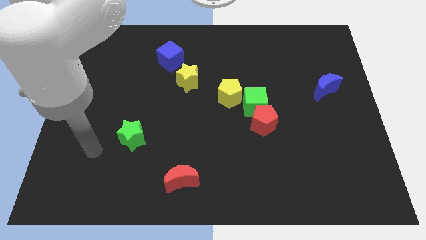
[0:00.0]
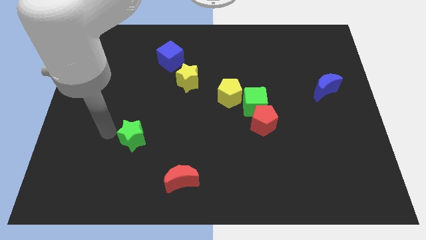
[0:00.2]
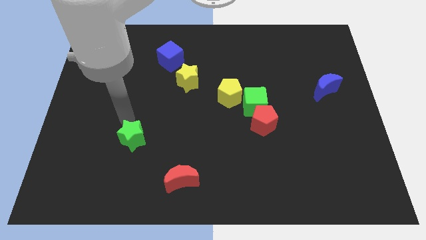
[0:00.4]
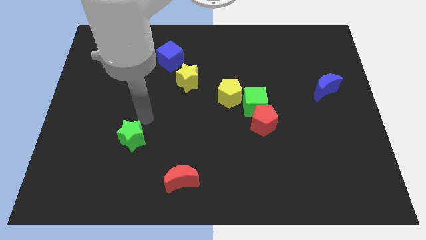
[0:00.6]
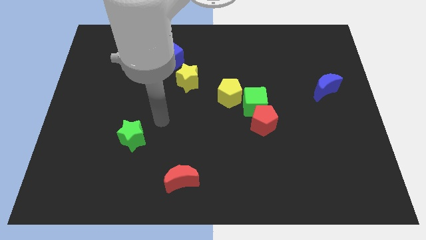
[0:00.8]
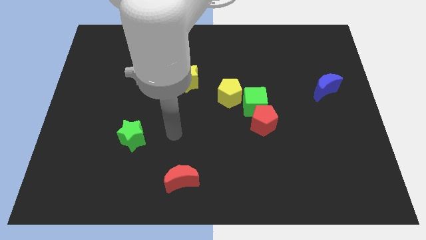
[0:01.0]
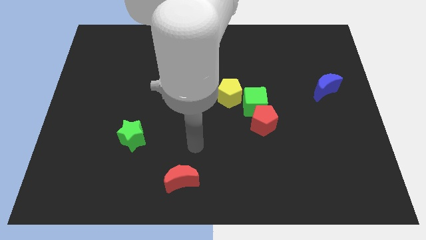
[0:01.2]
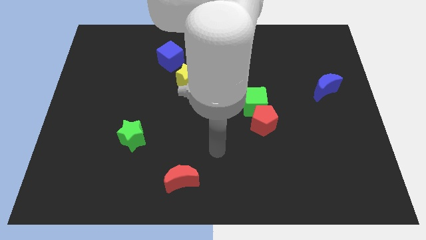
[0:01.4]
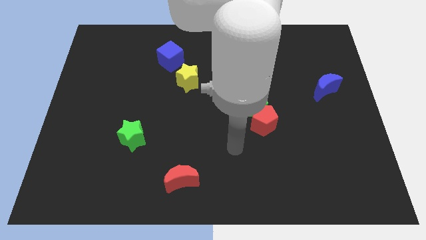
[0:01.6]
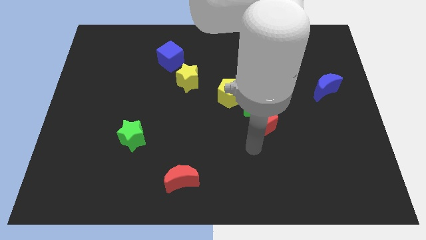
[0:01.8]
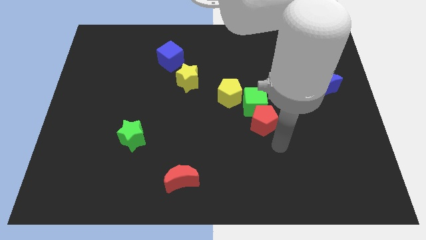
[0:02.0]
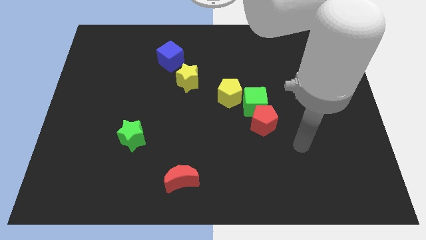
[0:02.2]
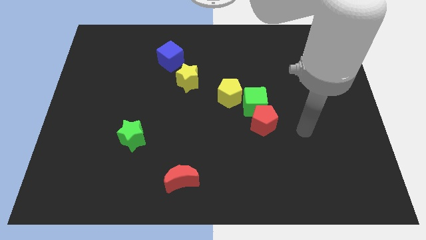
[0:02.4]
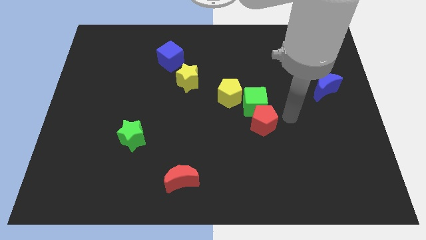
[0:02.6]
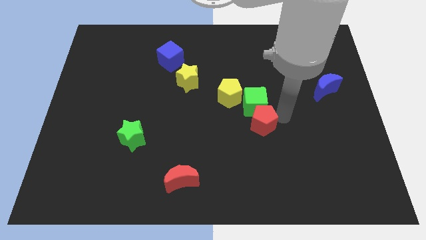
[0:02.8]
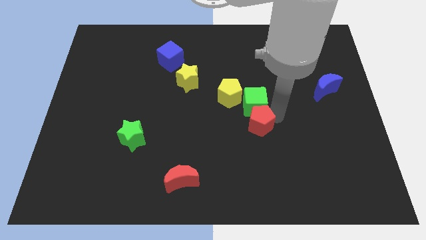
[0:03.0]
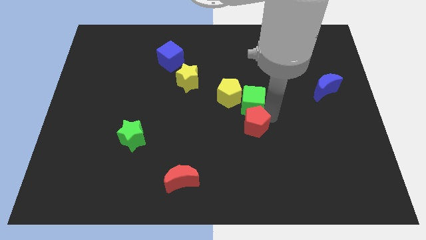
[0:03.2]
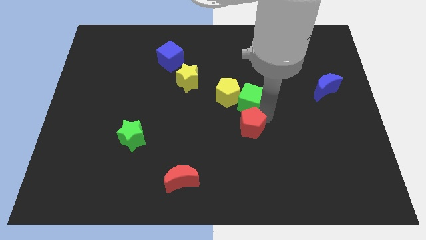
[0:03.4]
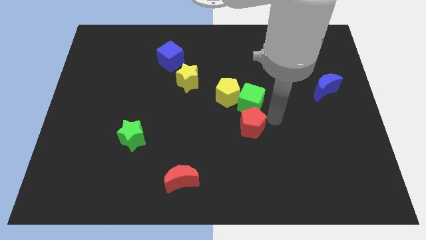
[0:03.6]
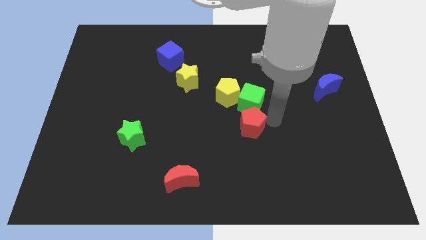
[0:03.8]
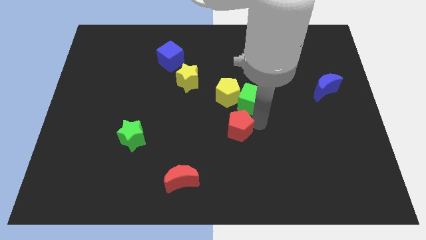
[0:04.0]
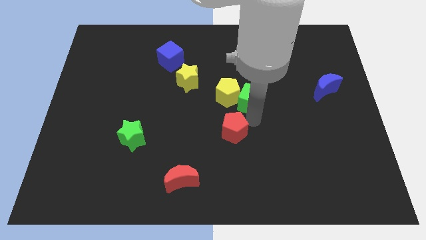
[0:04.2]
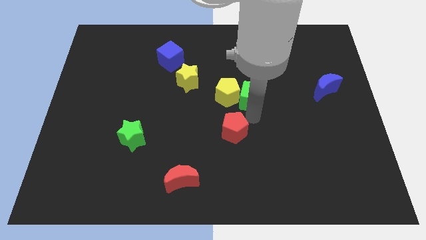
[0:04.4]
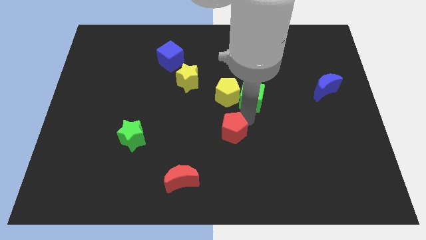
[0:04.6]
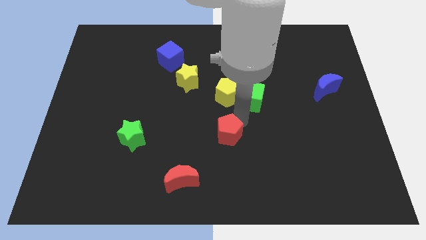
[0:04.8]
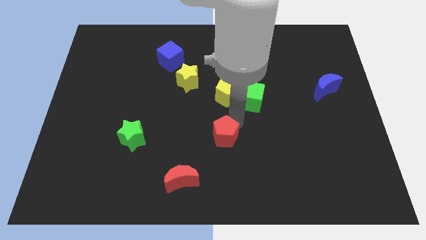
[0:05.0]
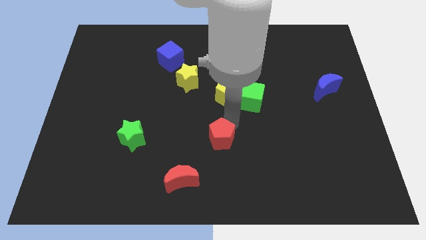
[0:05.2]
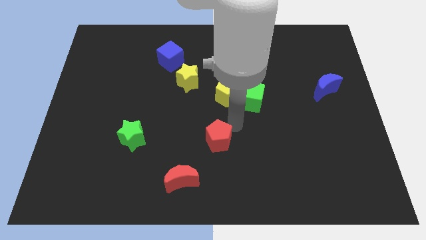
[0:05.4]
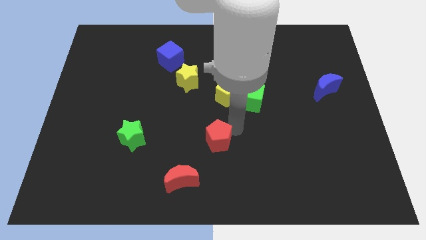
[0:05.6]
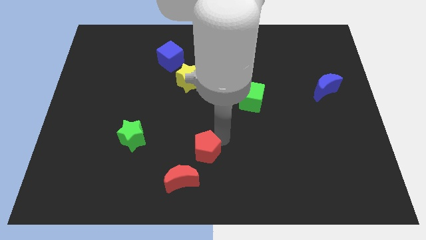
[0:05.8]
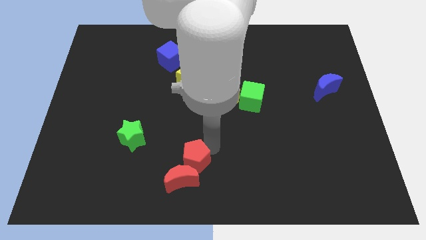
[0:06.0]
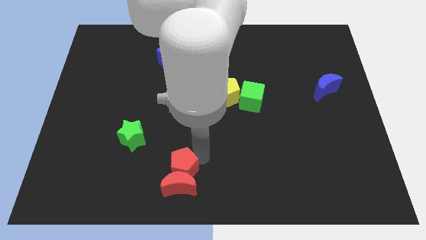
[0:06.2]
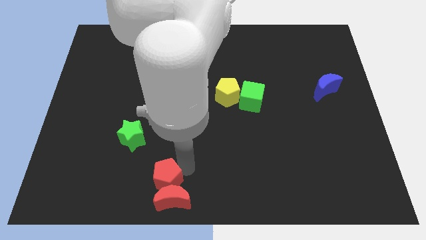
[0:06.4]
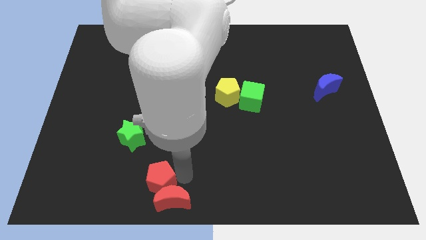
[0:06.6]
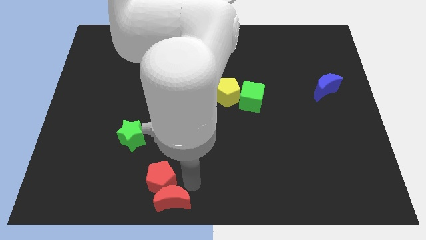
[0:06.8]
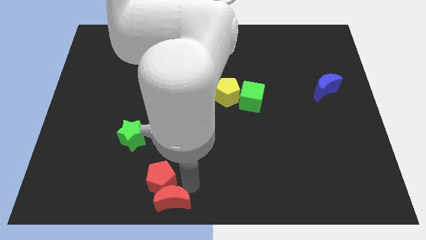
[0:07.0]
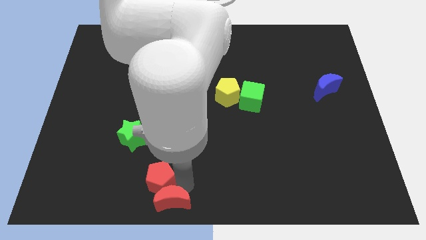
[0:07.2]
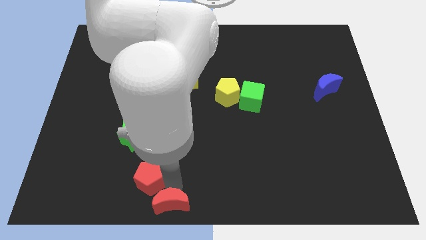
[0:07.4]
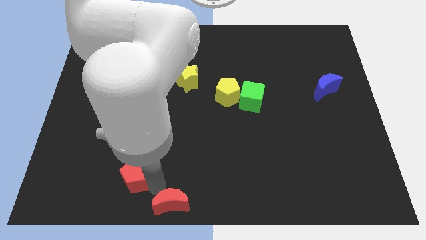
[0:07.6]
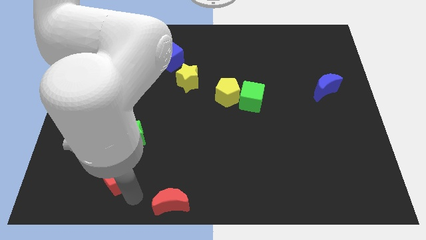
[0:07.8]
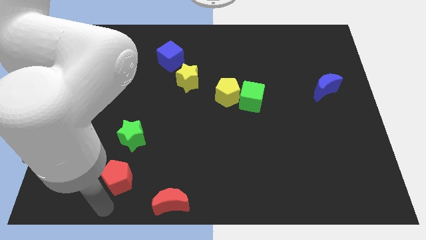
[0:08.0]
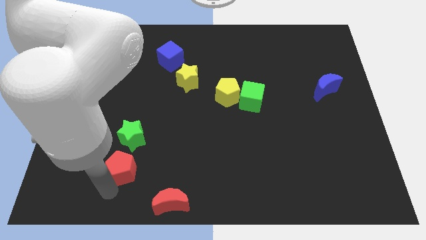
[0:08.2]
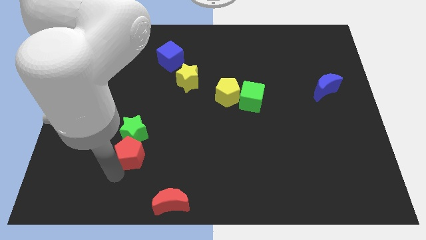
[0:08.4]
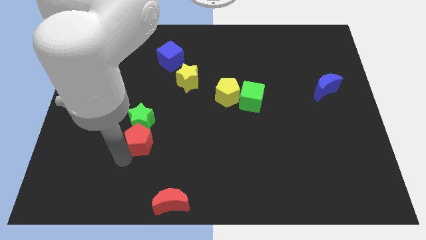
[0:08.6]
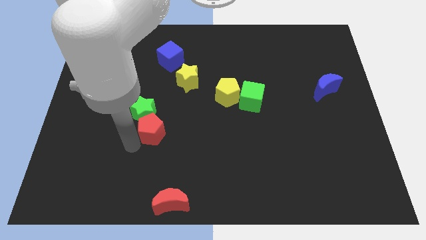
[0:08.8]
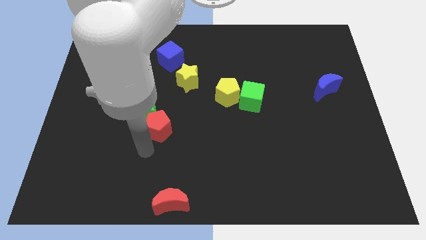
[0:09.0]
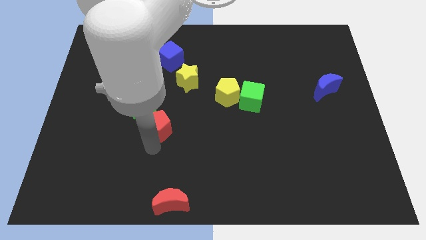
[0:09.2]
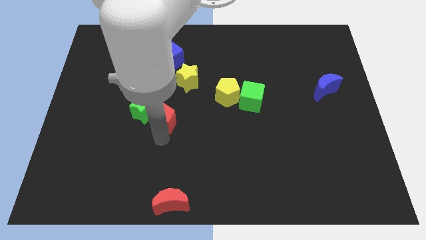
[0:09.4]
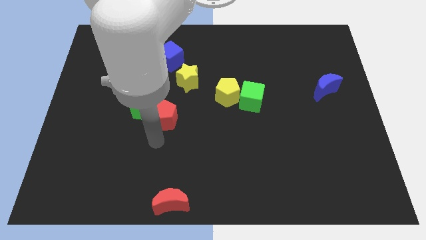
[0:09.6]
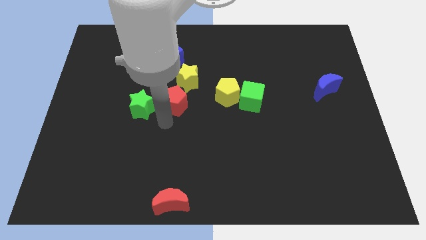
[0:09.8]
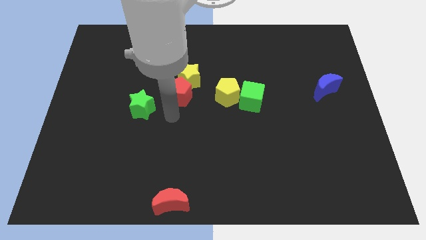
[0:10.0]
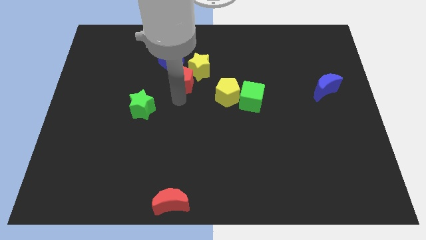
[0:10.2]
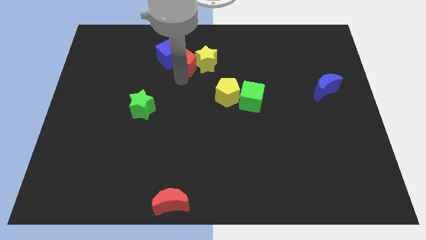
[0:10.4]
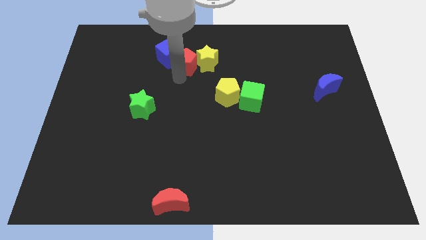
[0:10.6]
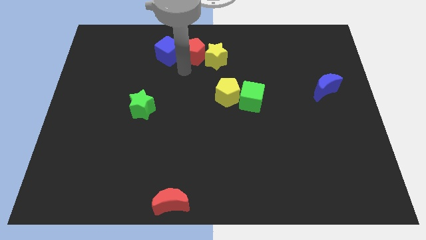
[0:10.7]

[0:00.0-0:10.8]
slide the red pentagon to the top

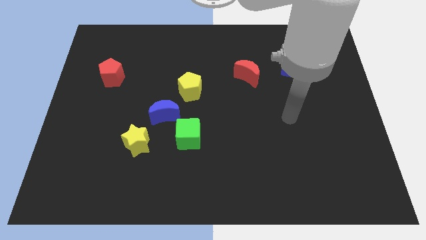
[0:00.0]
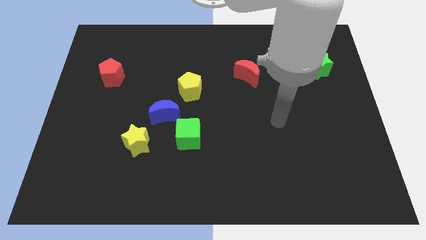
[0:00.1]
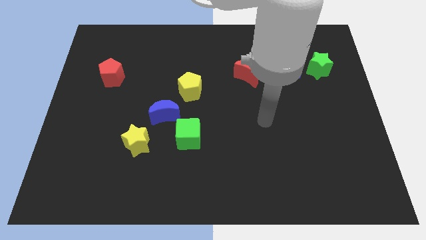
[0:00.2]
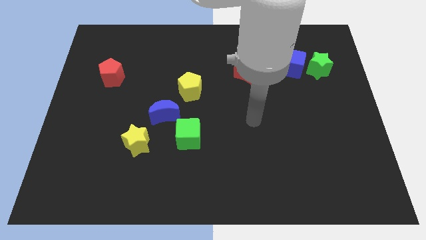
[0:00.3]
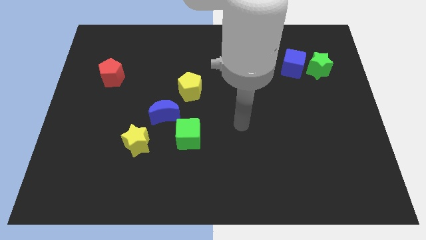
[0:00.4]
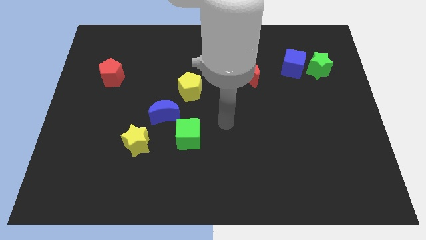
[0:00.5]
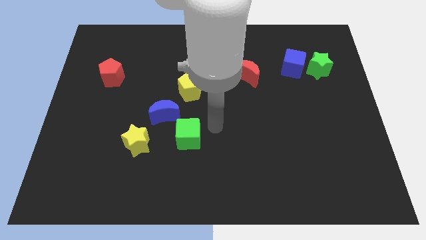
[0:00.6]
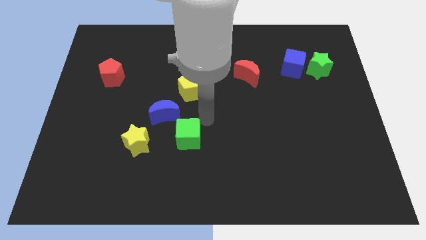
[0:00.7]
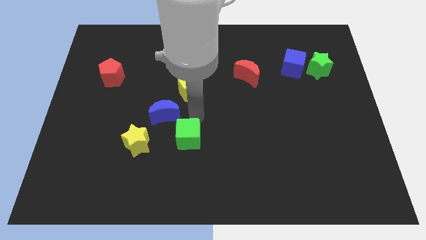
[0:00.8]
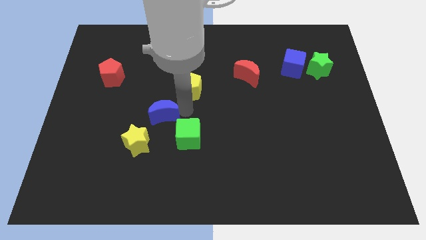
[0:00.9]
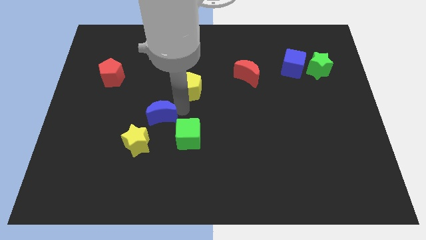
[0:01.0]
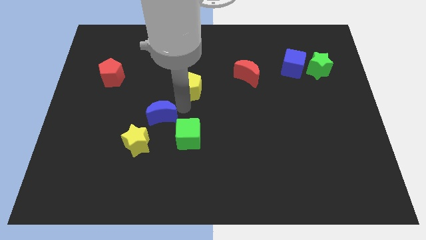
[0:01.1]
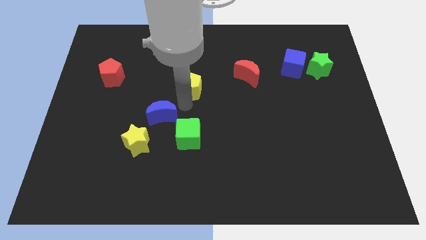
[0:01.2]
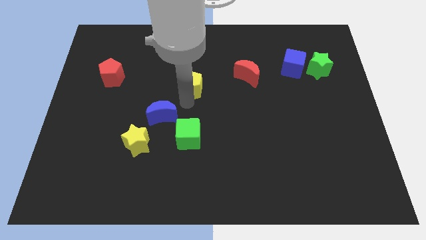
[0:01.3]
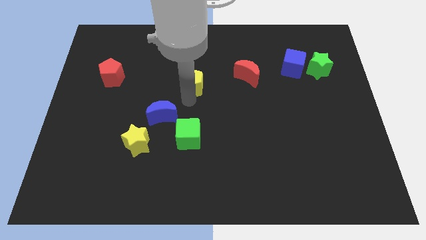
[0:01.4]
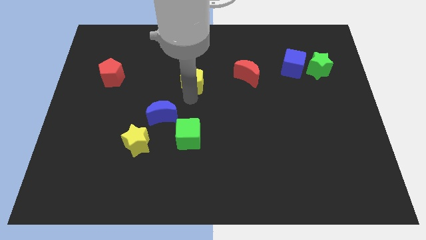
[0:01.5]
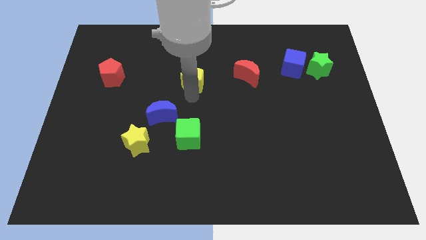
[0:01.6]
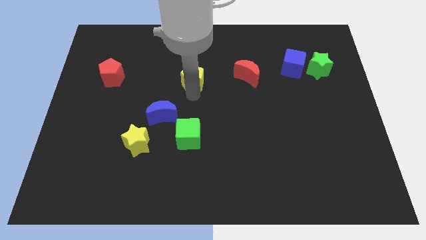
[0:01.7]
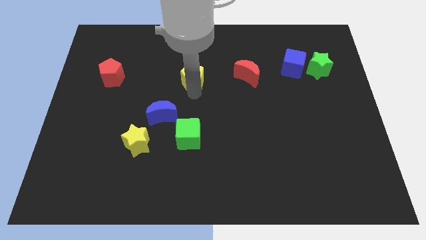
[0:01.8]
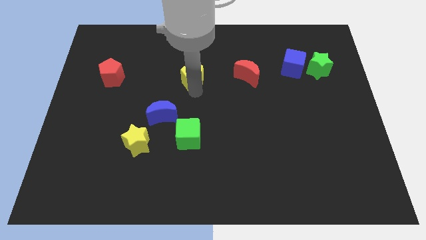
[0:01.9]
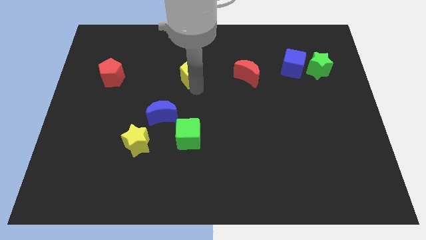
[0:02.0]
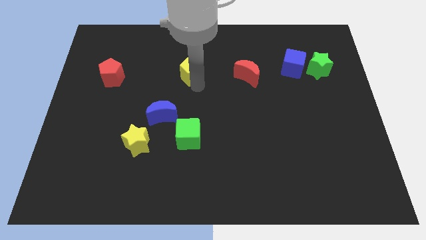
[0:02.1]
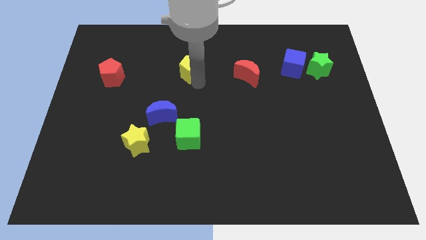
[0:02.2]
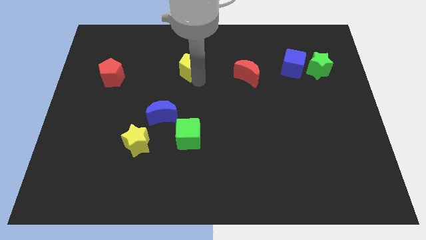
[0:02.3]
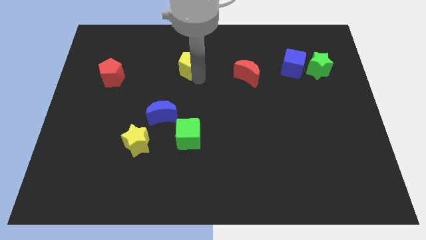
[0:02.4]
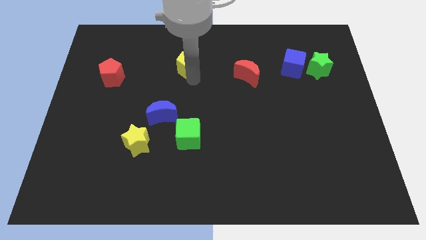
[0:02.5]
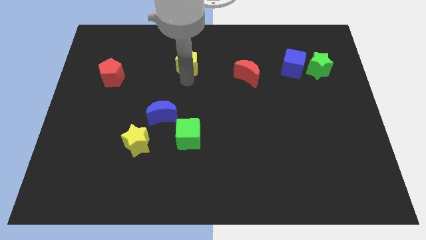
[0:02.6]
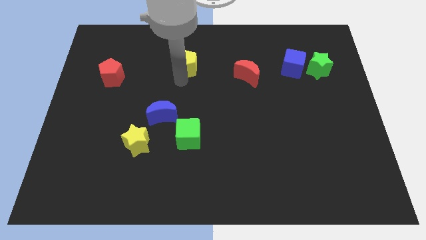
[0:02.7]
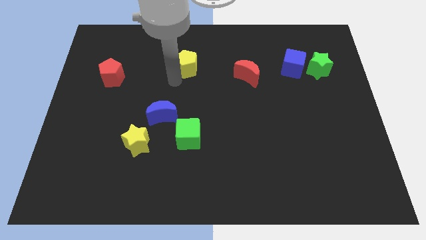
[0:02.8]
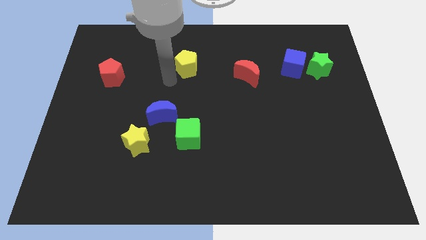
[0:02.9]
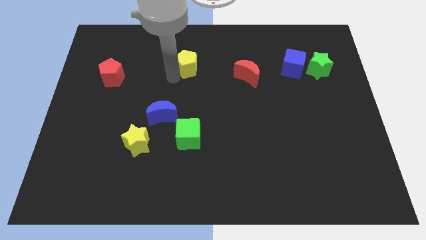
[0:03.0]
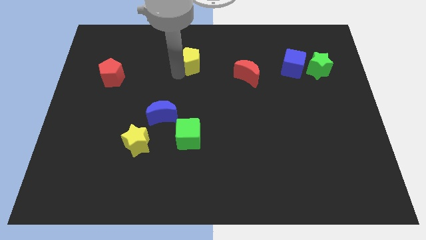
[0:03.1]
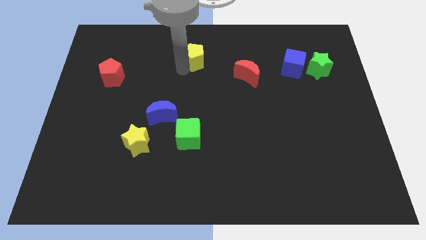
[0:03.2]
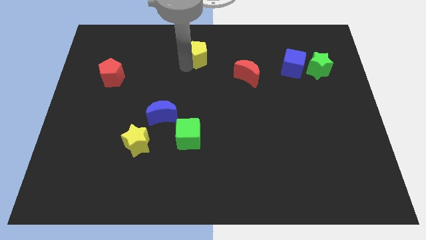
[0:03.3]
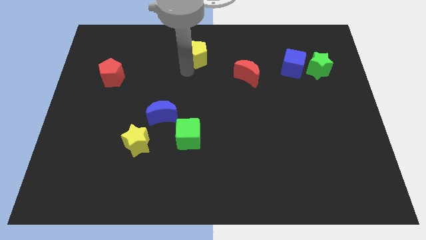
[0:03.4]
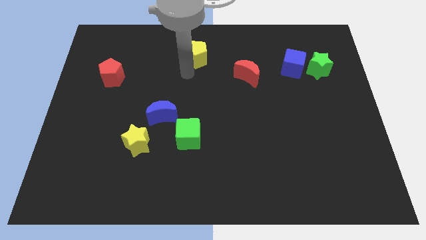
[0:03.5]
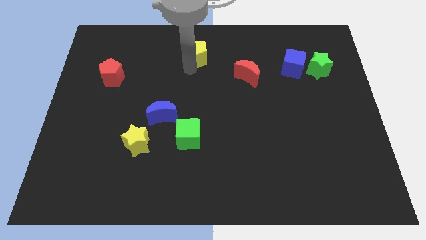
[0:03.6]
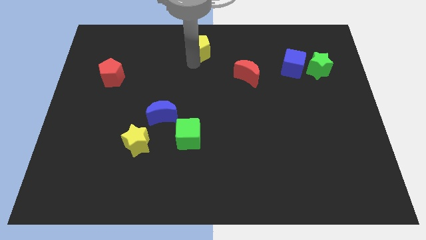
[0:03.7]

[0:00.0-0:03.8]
move the yellow pentagon to the towards your base
